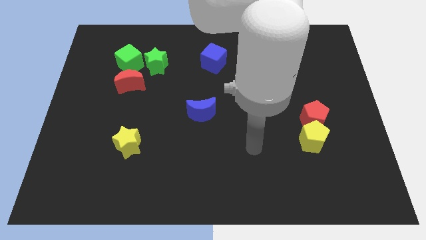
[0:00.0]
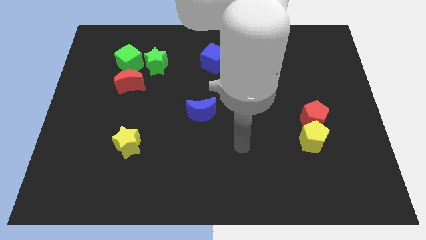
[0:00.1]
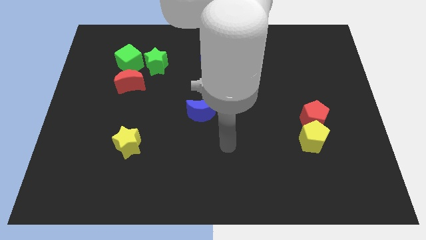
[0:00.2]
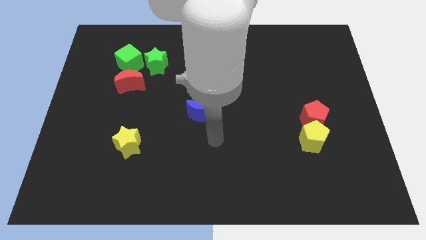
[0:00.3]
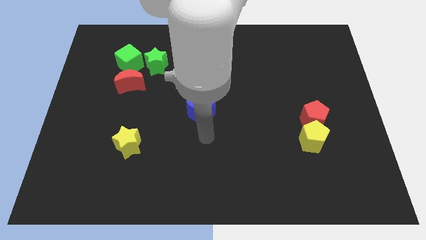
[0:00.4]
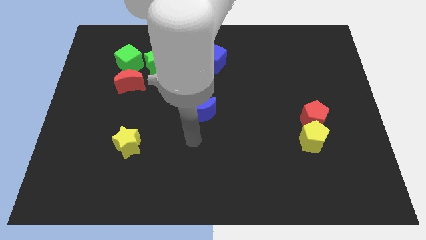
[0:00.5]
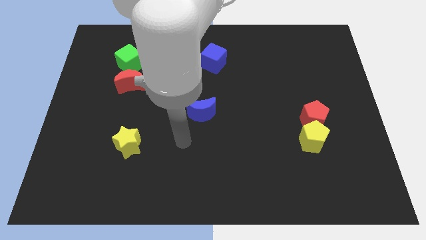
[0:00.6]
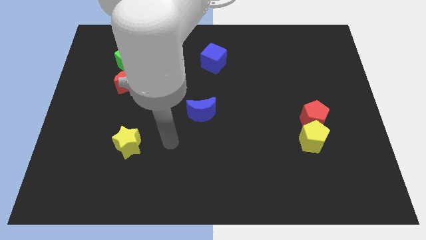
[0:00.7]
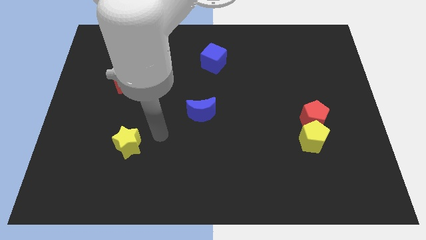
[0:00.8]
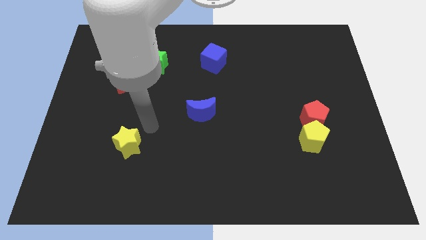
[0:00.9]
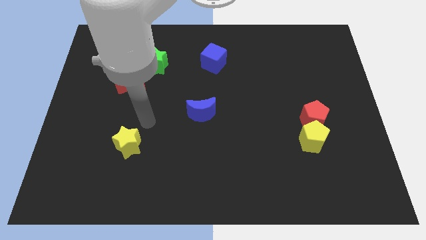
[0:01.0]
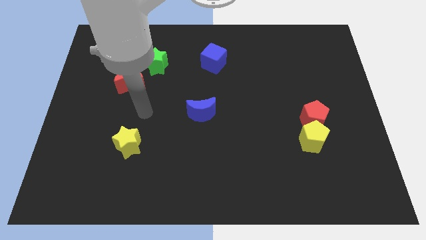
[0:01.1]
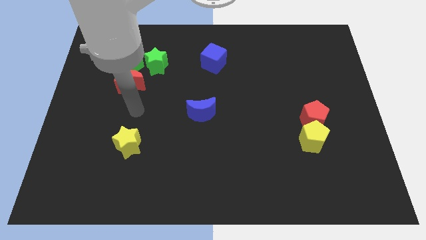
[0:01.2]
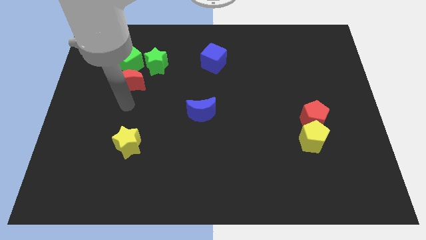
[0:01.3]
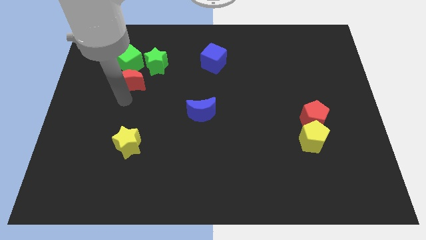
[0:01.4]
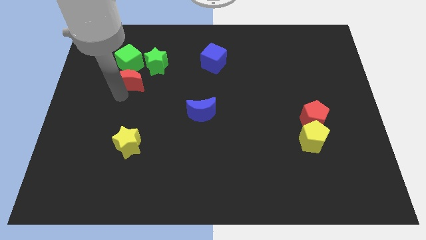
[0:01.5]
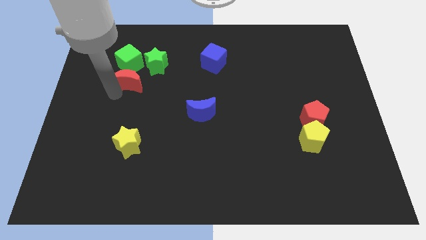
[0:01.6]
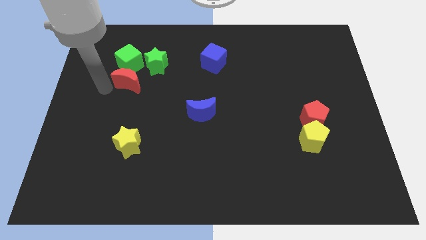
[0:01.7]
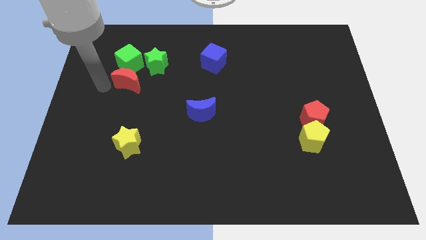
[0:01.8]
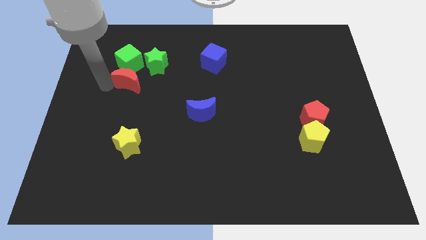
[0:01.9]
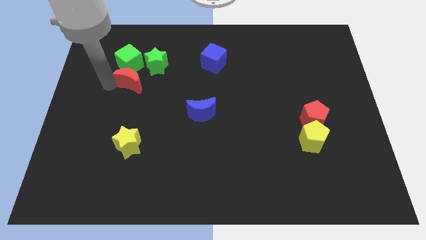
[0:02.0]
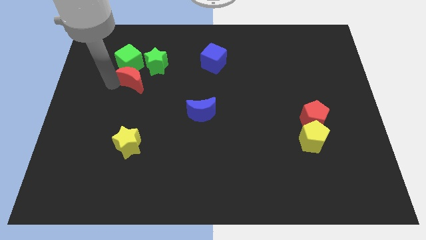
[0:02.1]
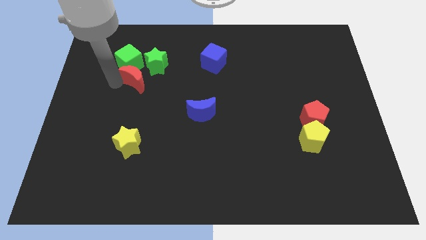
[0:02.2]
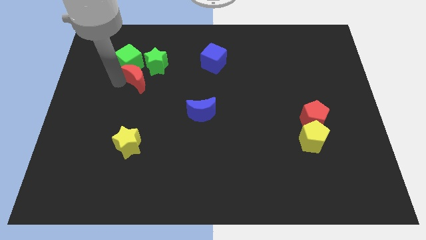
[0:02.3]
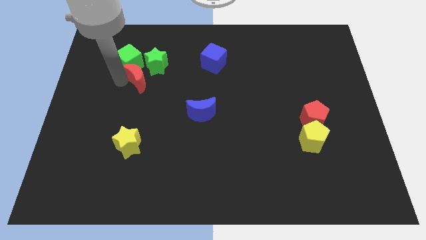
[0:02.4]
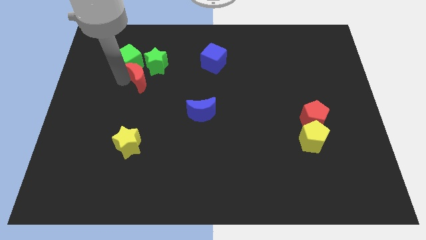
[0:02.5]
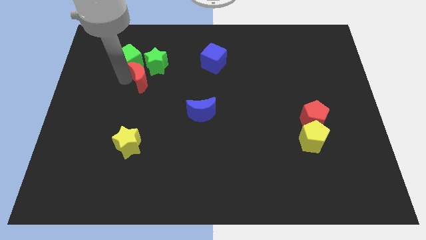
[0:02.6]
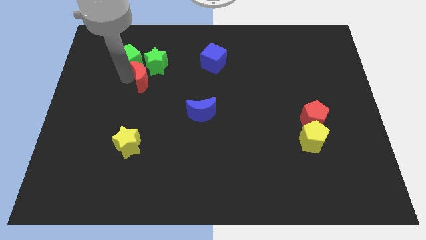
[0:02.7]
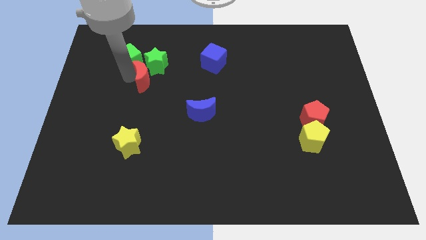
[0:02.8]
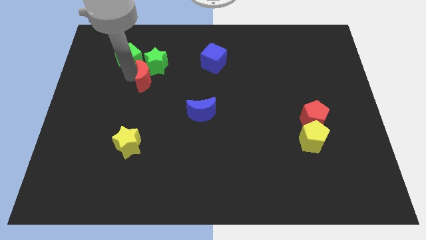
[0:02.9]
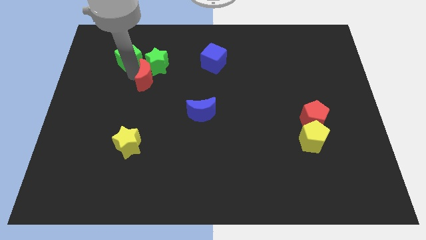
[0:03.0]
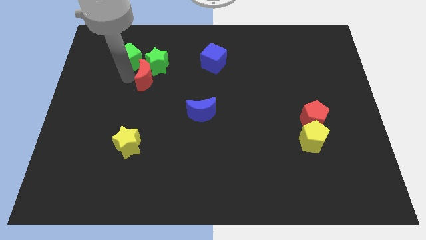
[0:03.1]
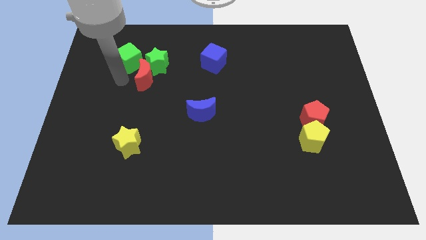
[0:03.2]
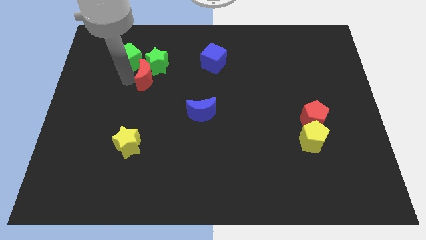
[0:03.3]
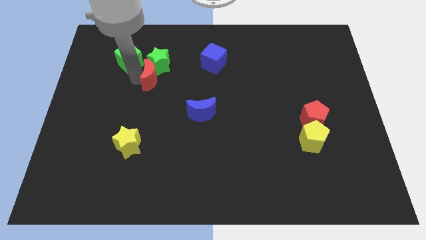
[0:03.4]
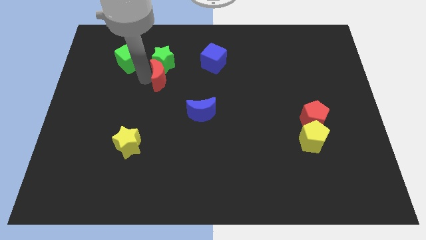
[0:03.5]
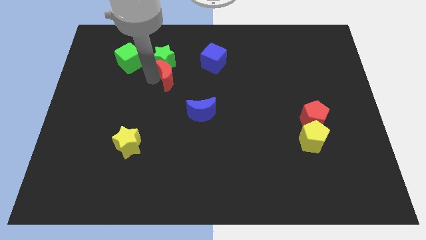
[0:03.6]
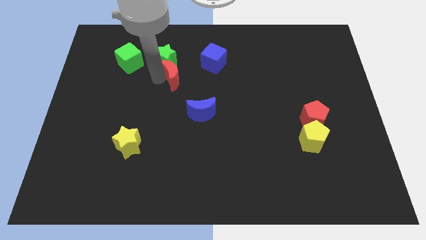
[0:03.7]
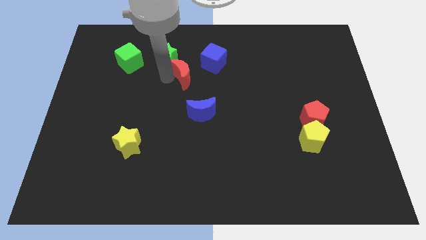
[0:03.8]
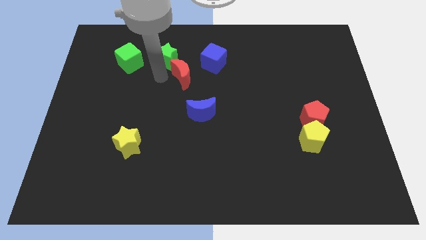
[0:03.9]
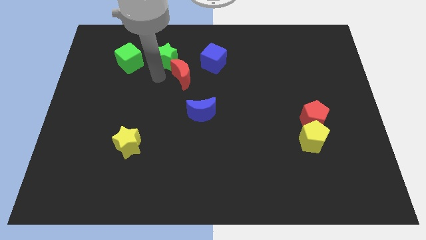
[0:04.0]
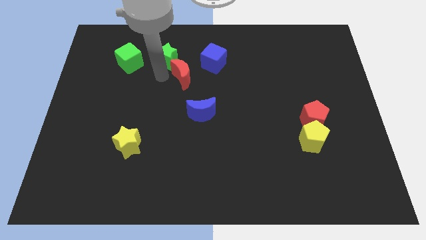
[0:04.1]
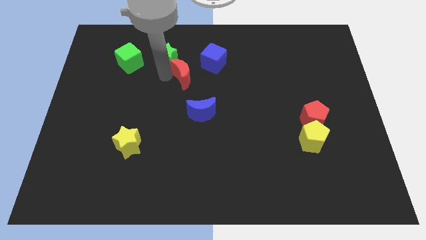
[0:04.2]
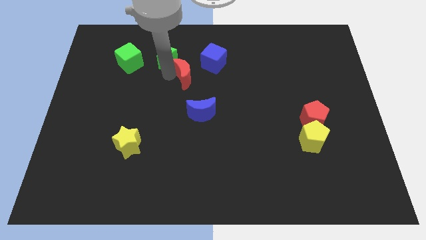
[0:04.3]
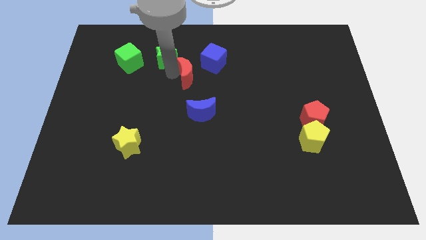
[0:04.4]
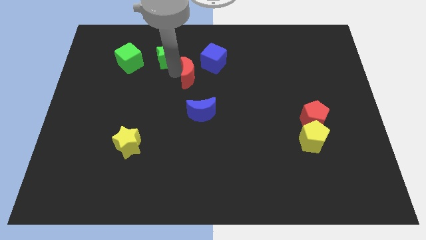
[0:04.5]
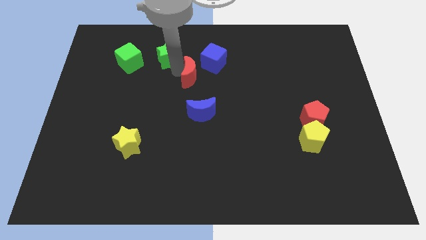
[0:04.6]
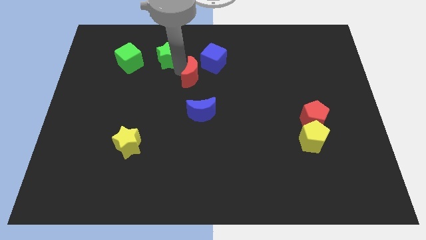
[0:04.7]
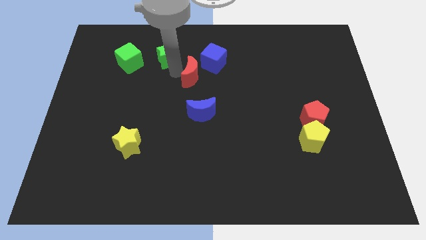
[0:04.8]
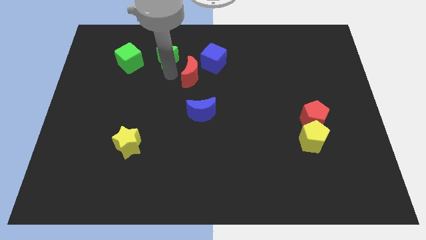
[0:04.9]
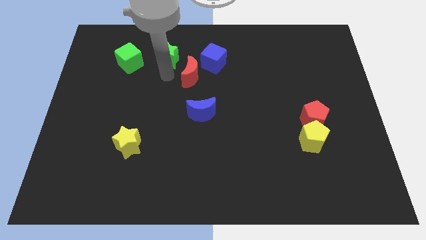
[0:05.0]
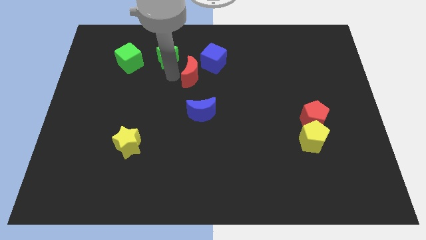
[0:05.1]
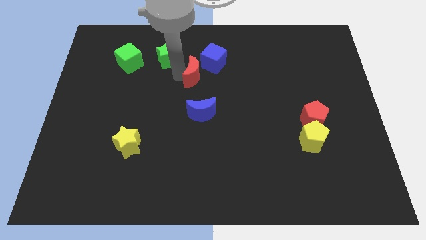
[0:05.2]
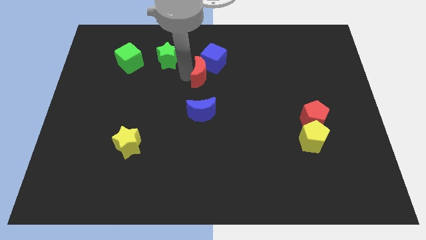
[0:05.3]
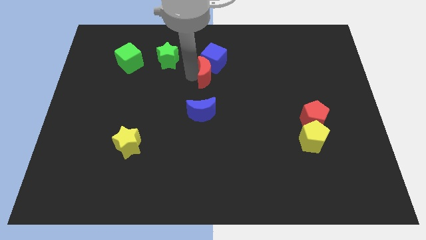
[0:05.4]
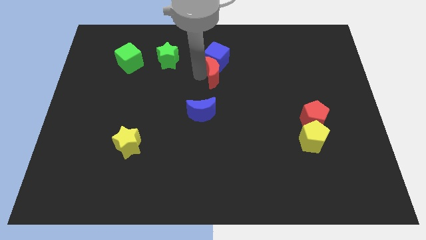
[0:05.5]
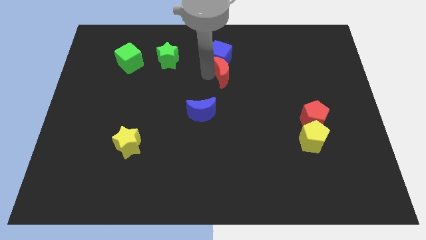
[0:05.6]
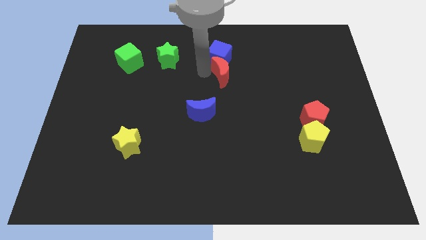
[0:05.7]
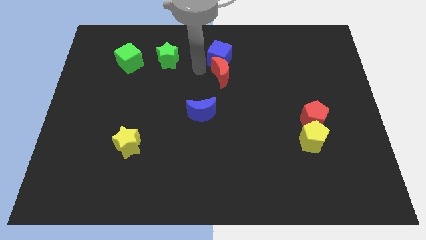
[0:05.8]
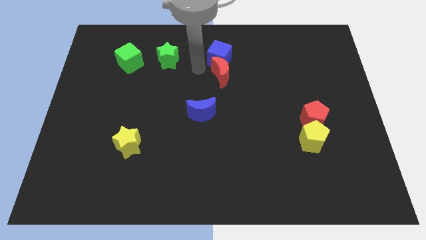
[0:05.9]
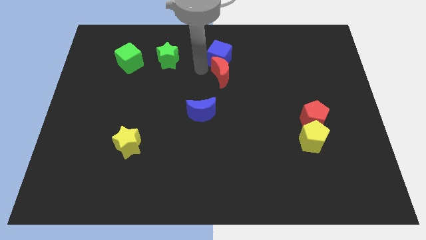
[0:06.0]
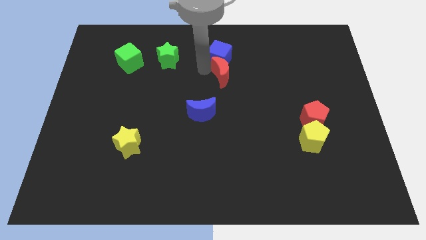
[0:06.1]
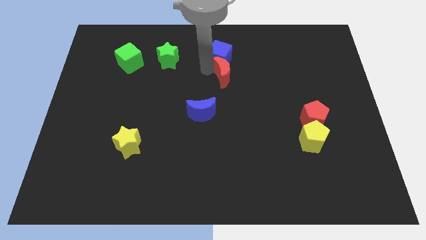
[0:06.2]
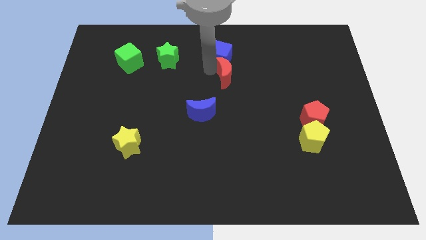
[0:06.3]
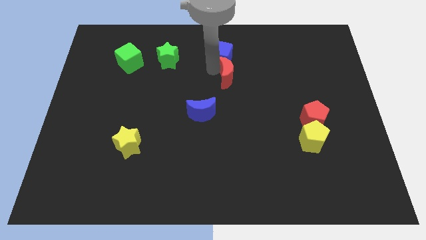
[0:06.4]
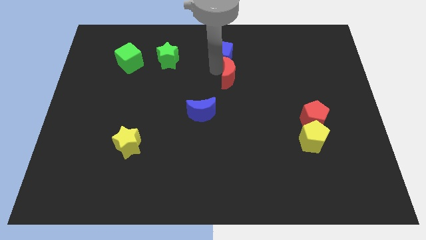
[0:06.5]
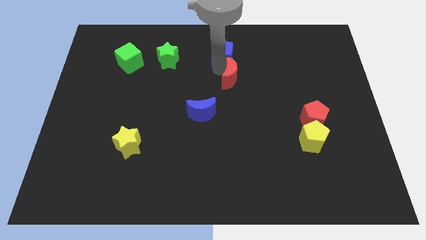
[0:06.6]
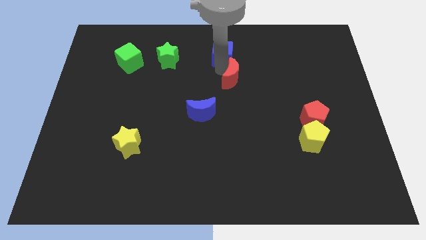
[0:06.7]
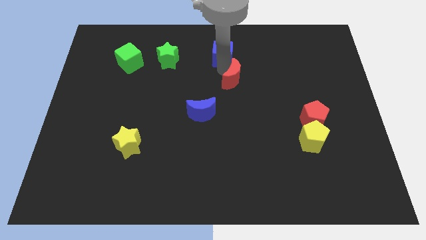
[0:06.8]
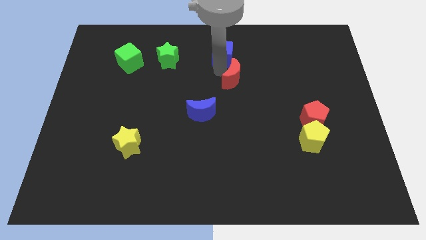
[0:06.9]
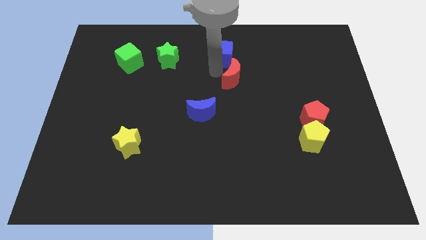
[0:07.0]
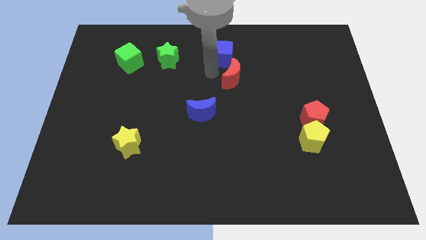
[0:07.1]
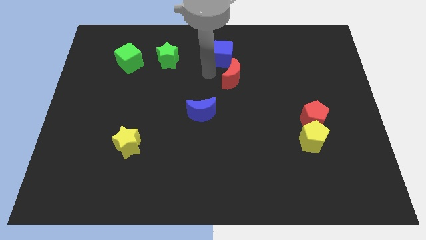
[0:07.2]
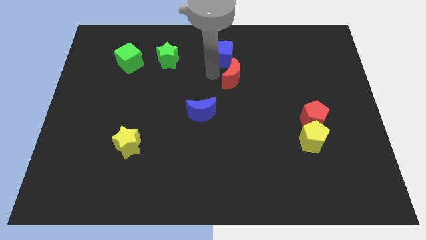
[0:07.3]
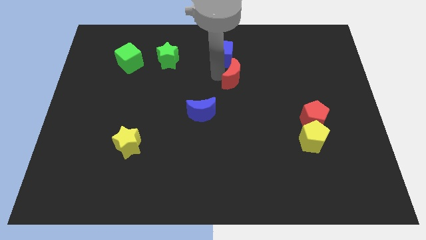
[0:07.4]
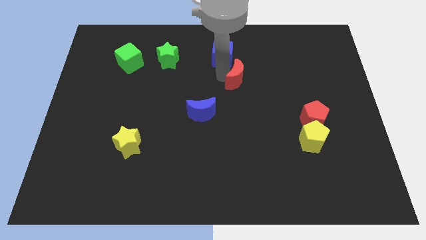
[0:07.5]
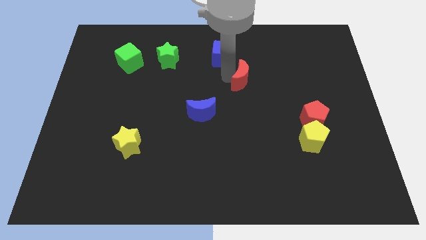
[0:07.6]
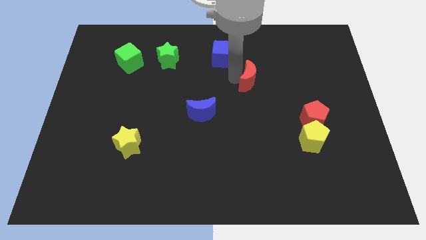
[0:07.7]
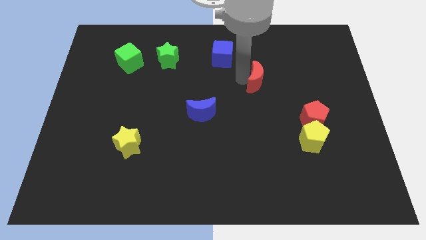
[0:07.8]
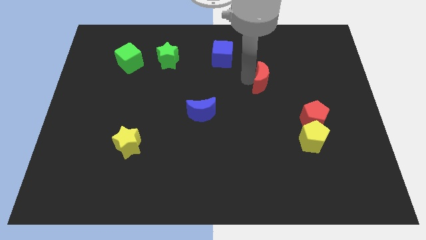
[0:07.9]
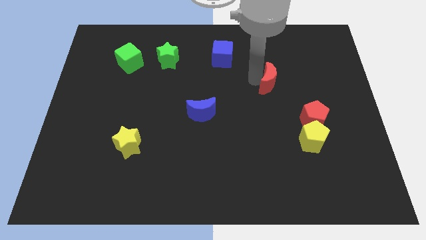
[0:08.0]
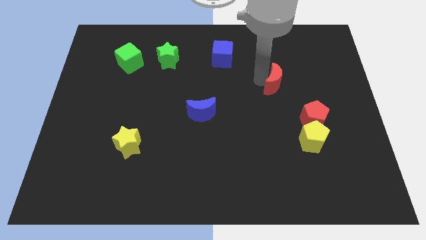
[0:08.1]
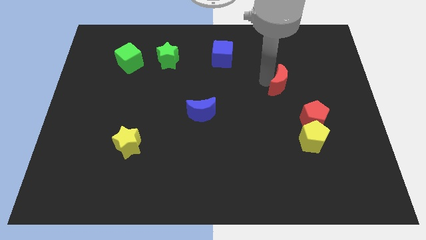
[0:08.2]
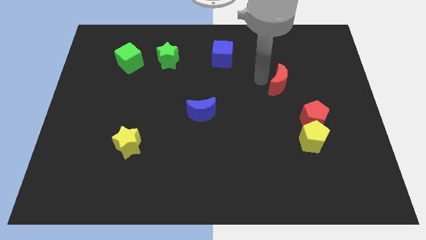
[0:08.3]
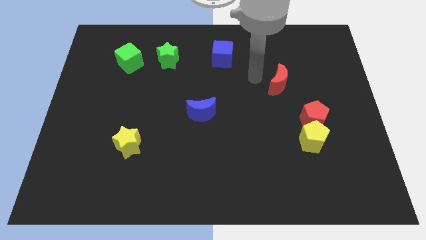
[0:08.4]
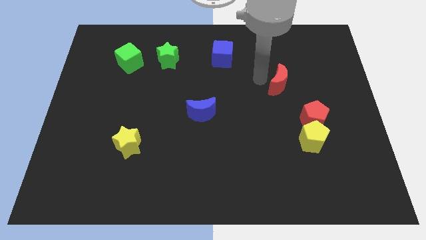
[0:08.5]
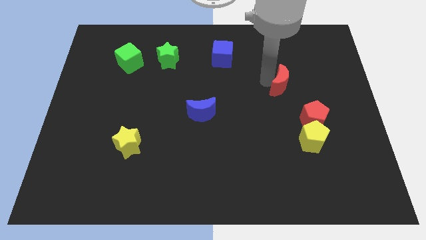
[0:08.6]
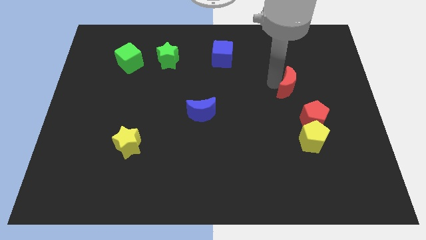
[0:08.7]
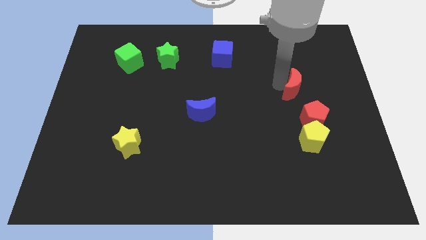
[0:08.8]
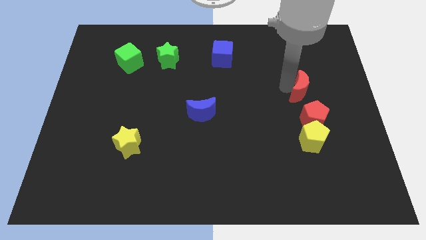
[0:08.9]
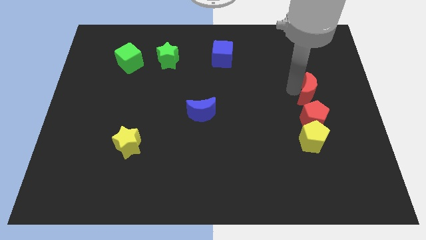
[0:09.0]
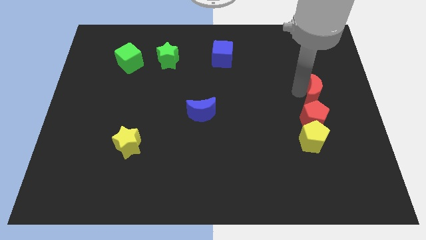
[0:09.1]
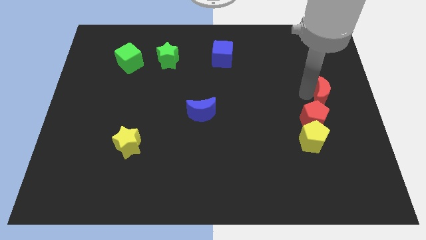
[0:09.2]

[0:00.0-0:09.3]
push the red moon to the center right
